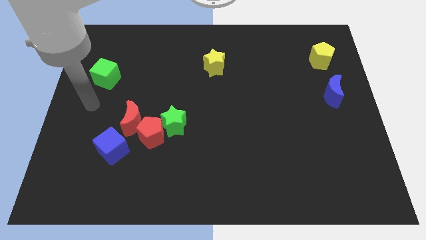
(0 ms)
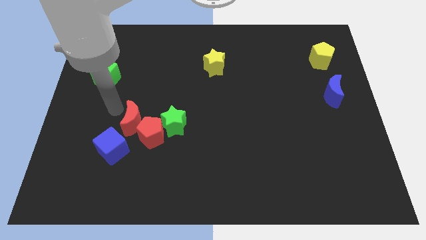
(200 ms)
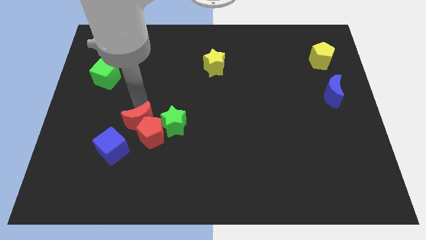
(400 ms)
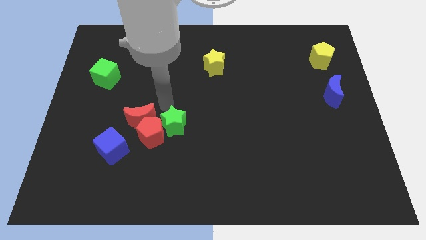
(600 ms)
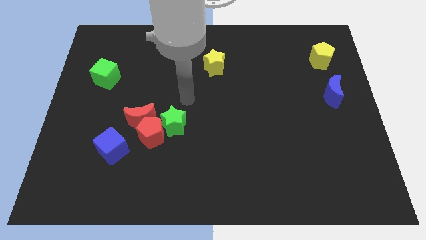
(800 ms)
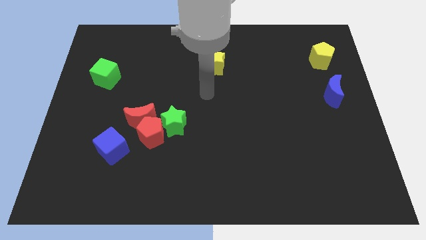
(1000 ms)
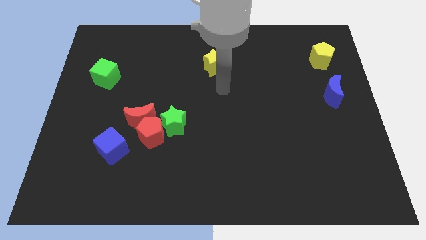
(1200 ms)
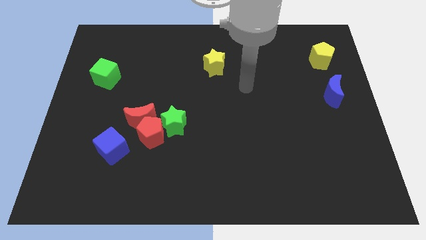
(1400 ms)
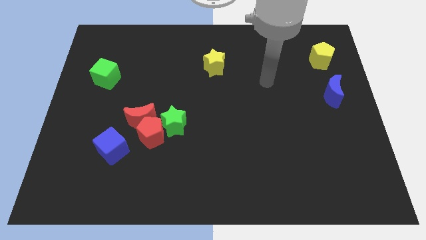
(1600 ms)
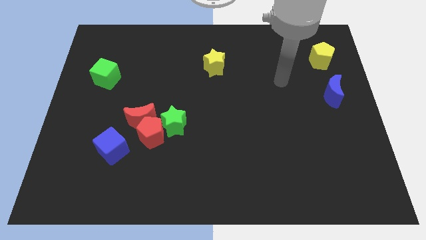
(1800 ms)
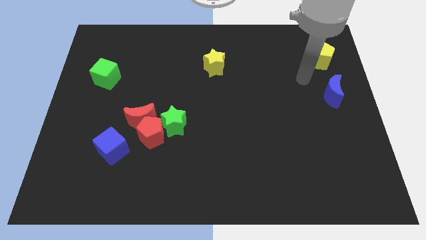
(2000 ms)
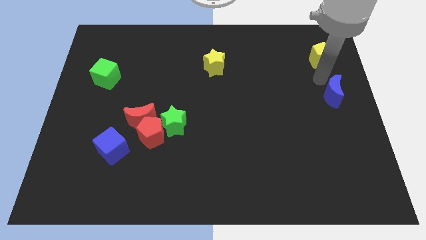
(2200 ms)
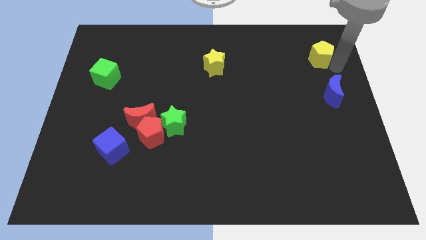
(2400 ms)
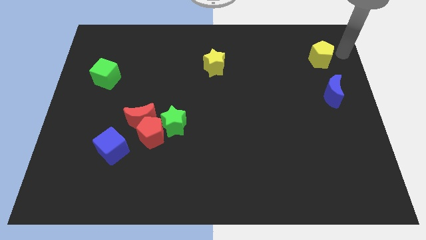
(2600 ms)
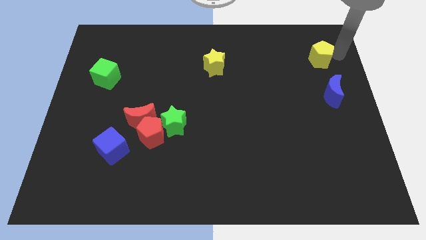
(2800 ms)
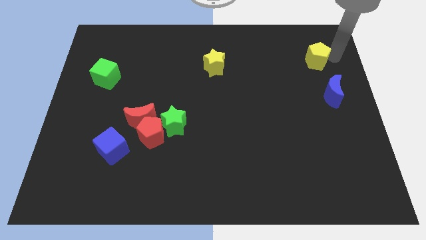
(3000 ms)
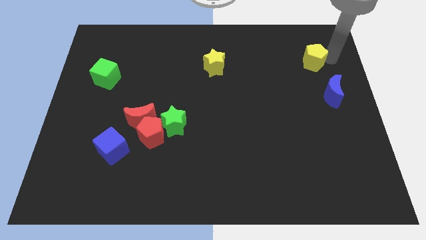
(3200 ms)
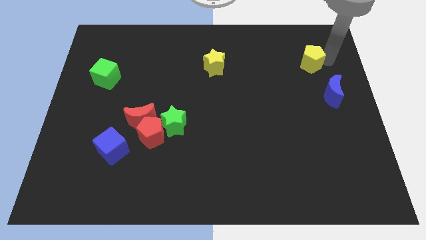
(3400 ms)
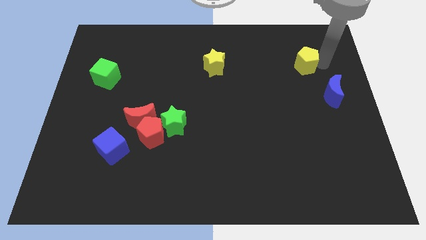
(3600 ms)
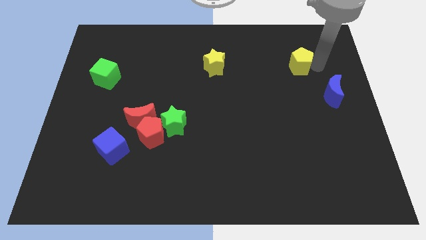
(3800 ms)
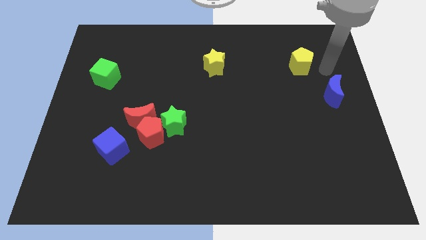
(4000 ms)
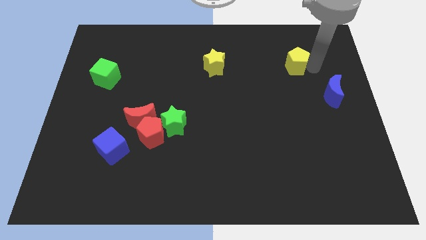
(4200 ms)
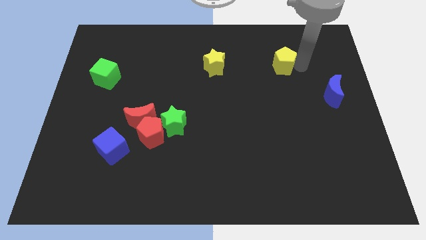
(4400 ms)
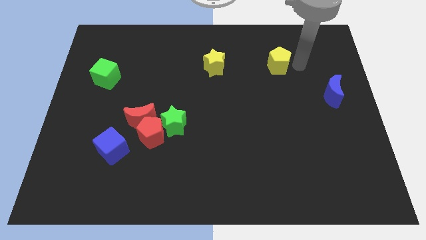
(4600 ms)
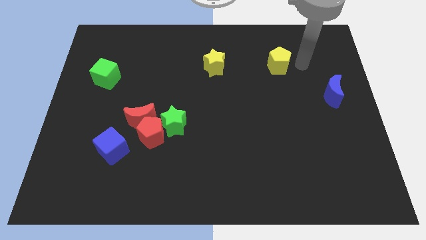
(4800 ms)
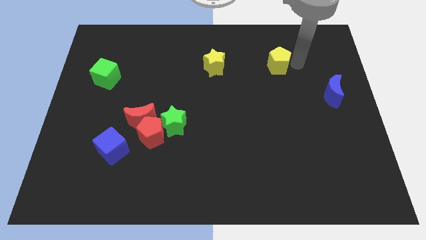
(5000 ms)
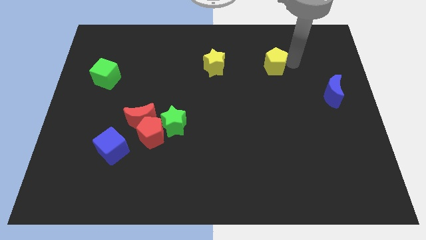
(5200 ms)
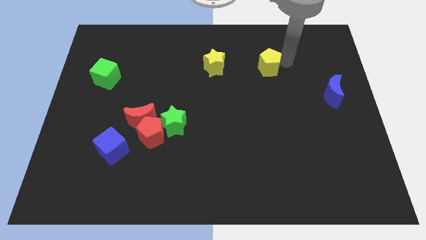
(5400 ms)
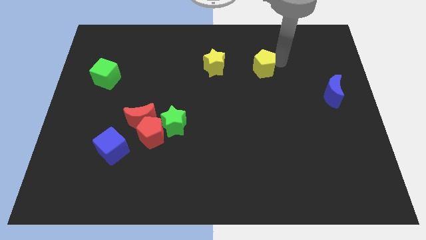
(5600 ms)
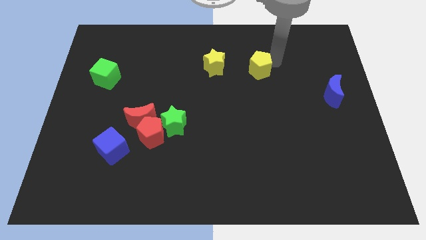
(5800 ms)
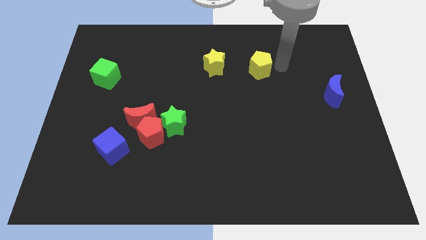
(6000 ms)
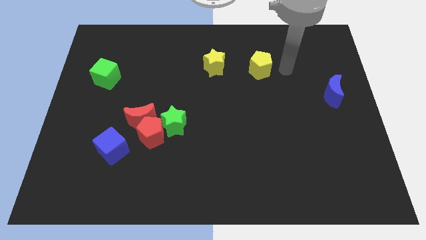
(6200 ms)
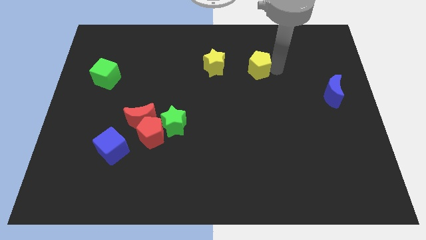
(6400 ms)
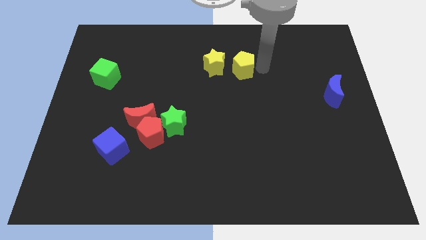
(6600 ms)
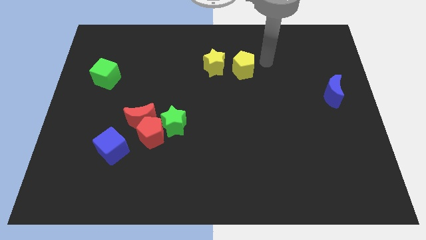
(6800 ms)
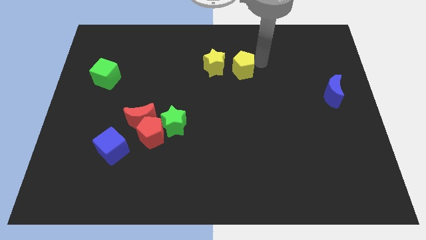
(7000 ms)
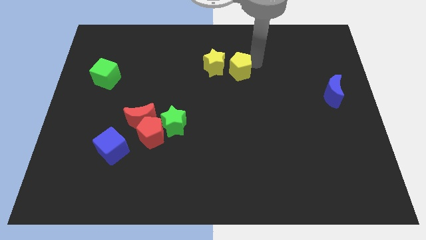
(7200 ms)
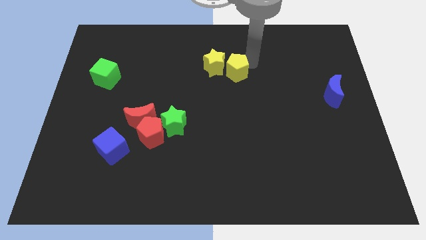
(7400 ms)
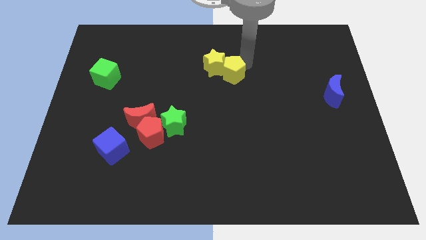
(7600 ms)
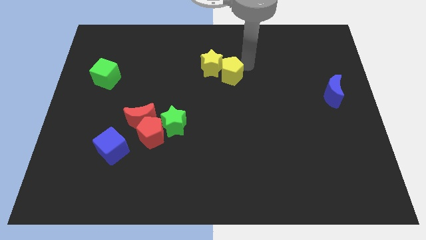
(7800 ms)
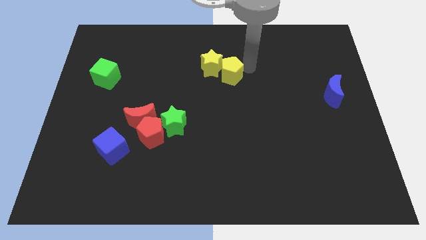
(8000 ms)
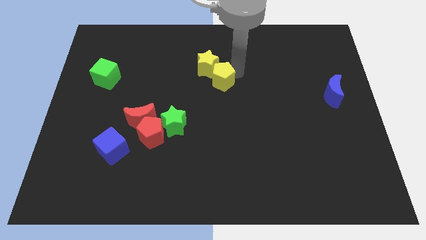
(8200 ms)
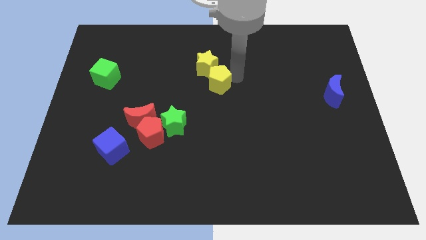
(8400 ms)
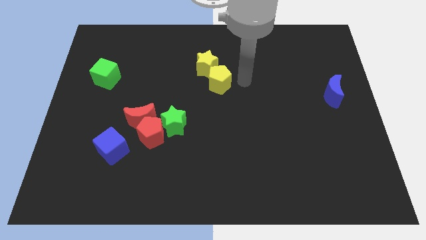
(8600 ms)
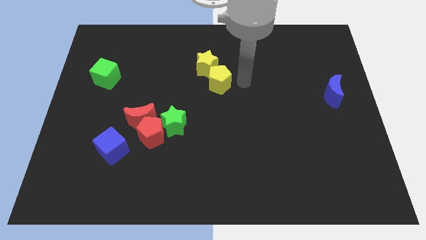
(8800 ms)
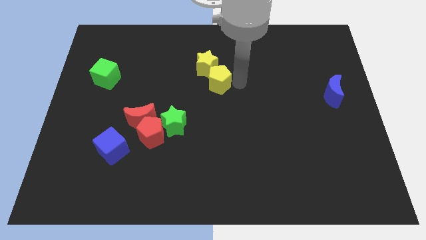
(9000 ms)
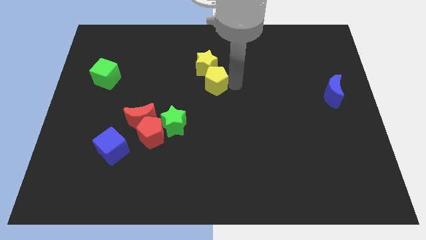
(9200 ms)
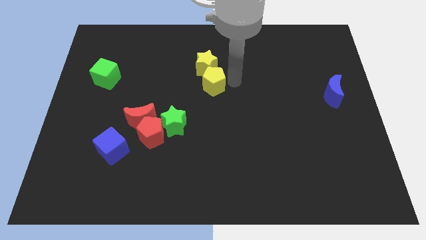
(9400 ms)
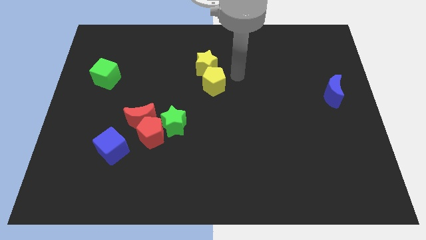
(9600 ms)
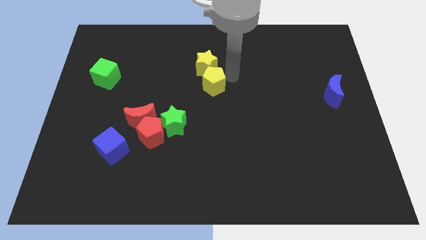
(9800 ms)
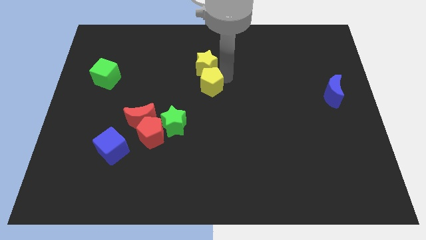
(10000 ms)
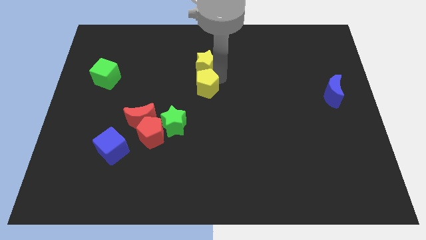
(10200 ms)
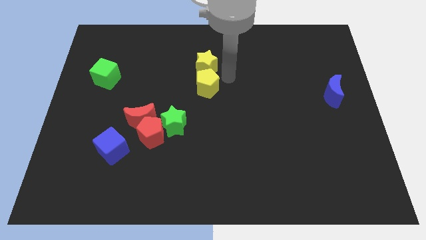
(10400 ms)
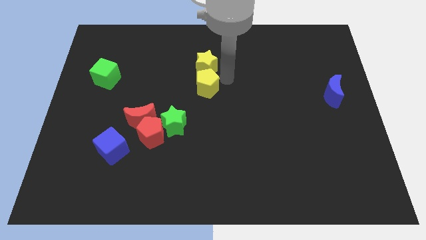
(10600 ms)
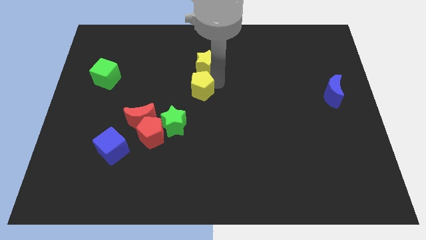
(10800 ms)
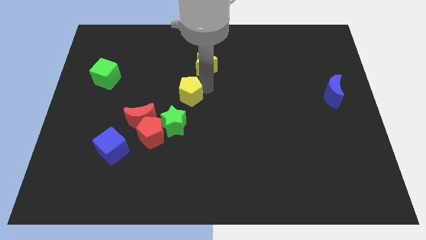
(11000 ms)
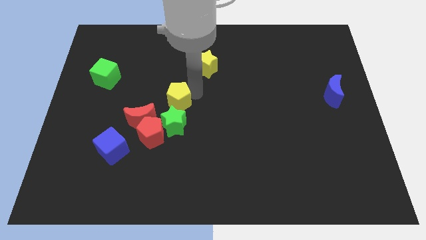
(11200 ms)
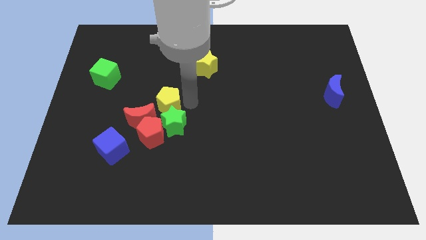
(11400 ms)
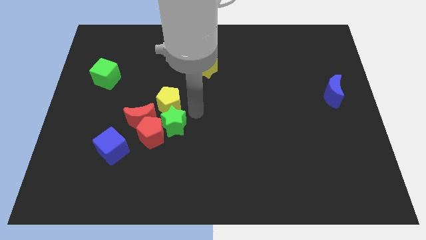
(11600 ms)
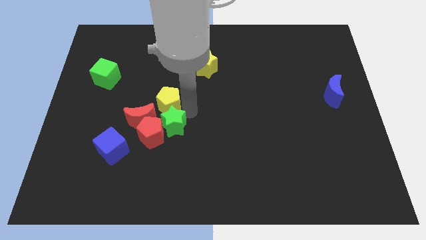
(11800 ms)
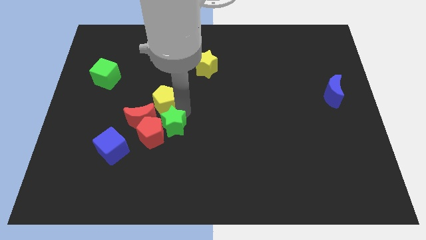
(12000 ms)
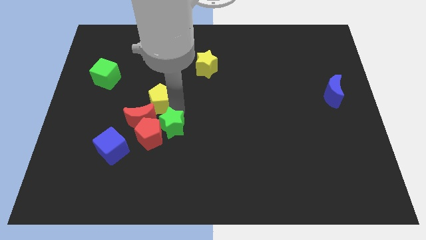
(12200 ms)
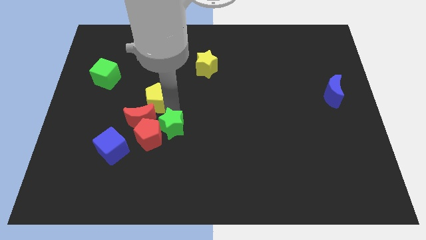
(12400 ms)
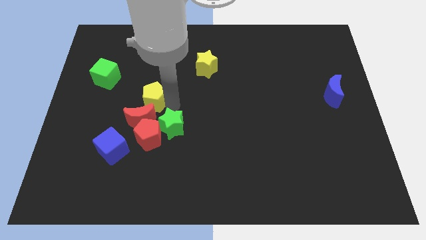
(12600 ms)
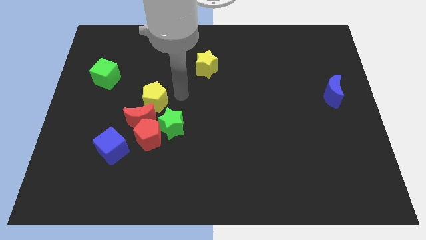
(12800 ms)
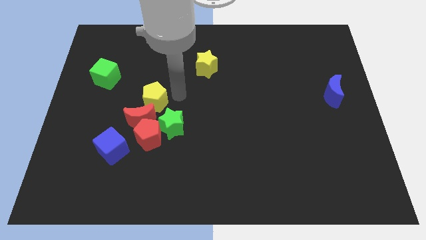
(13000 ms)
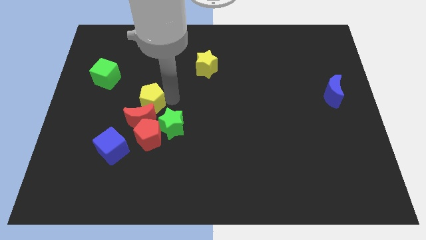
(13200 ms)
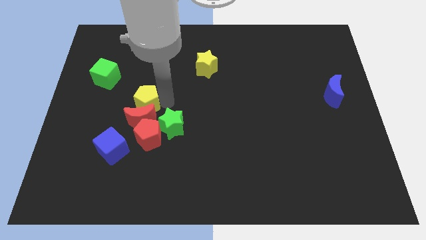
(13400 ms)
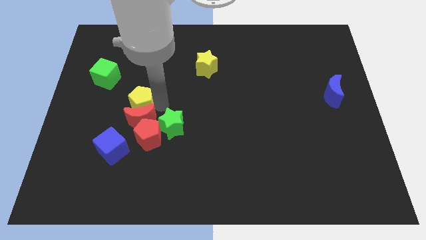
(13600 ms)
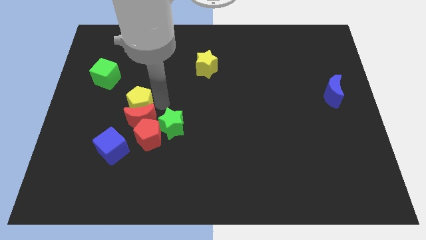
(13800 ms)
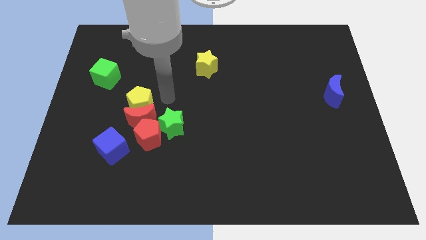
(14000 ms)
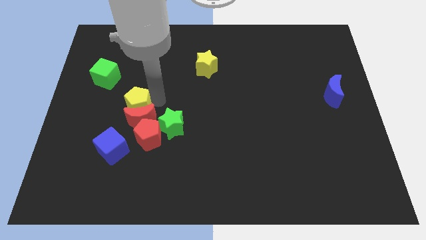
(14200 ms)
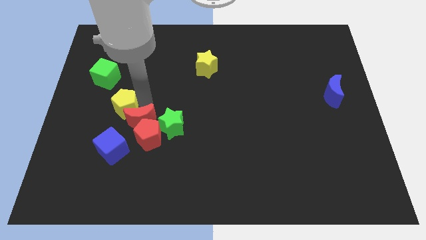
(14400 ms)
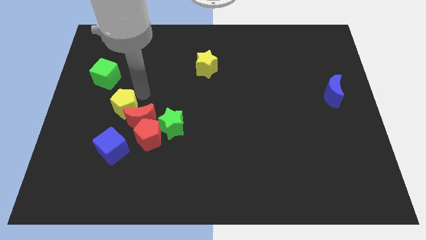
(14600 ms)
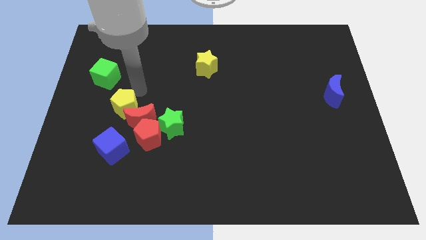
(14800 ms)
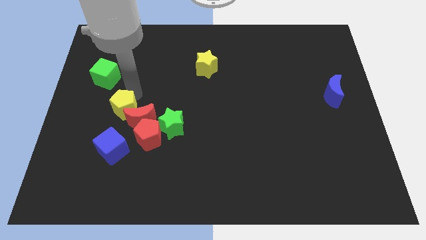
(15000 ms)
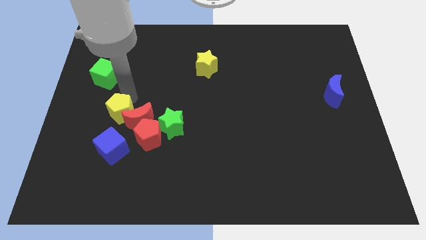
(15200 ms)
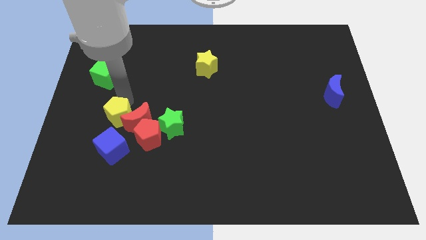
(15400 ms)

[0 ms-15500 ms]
slide the yellow pentagon diagonally down and to the left of the red moon
